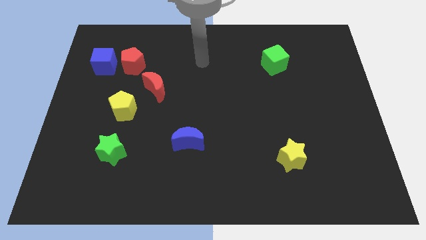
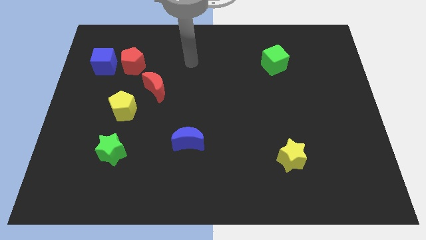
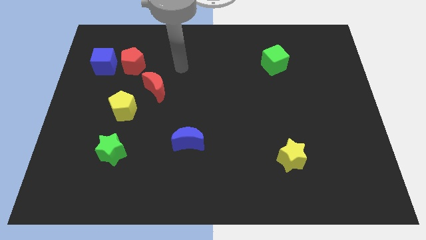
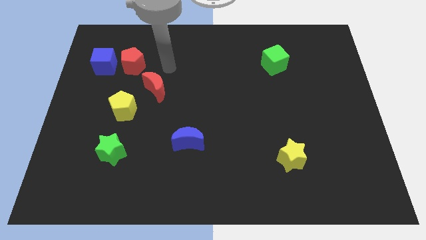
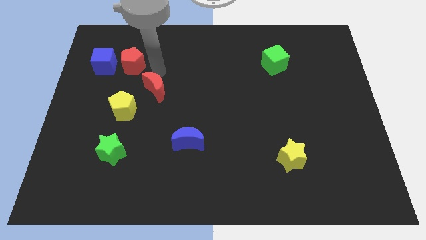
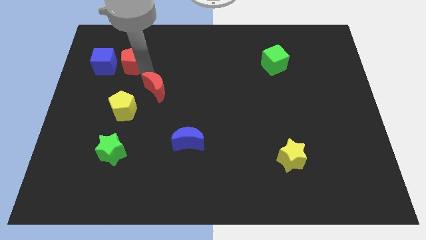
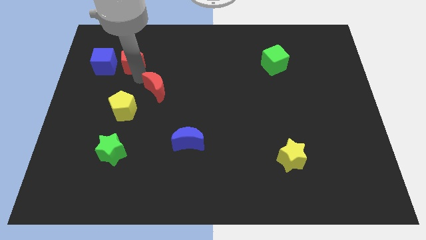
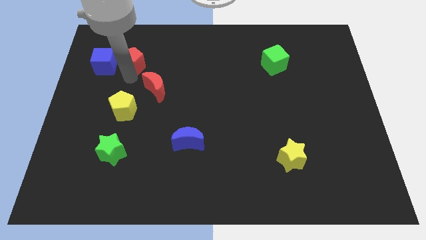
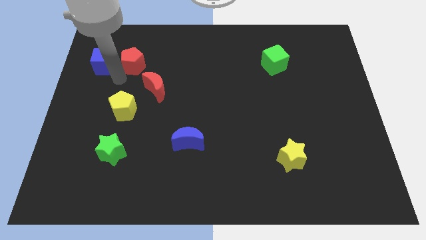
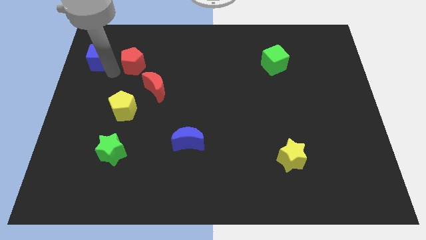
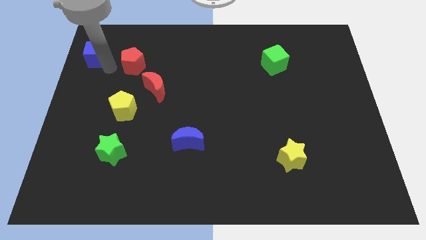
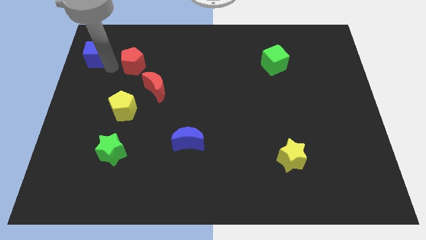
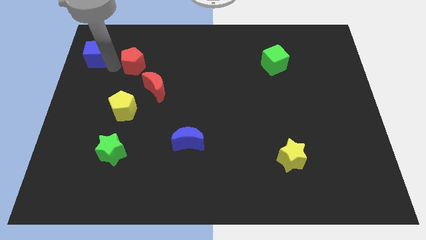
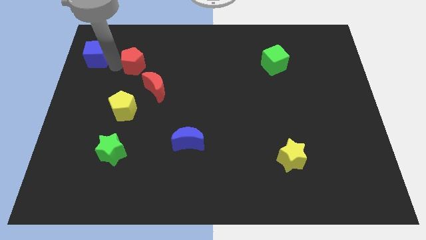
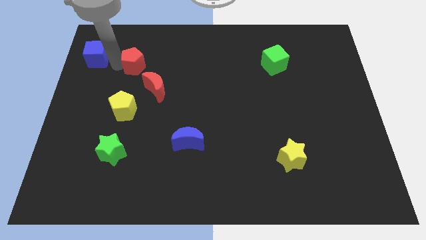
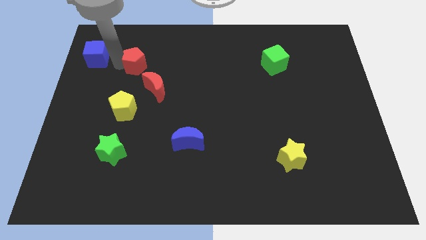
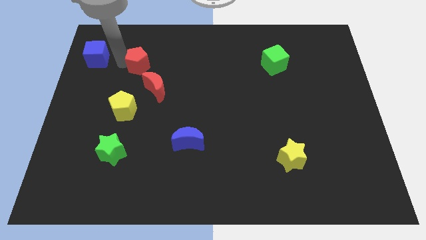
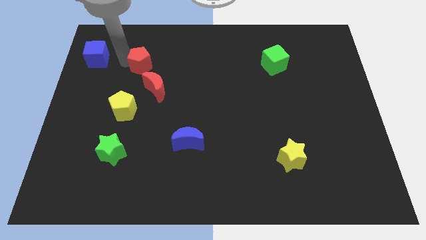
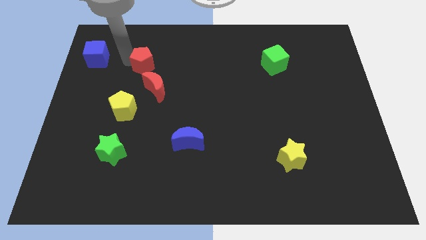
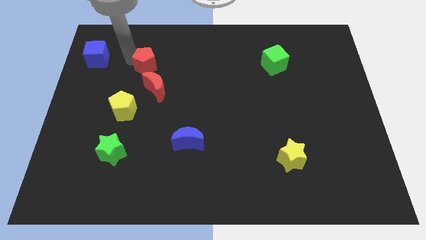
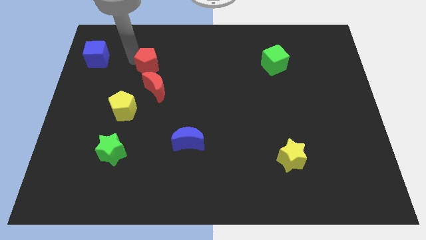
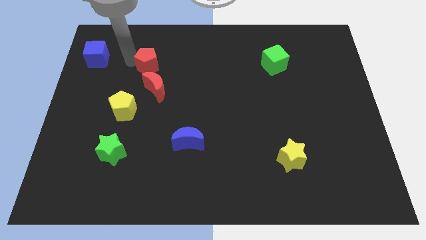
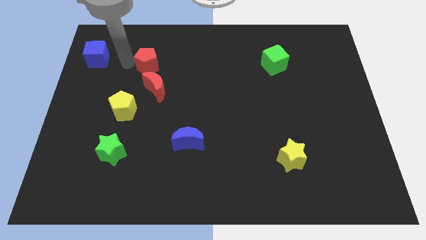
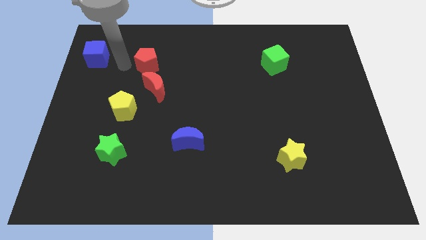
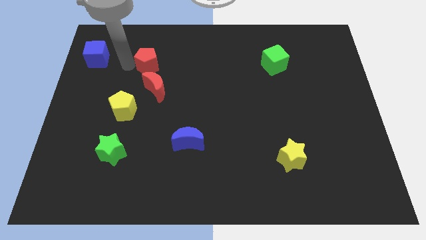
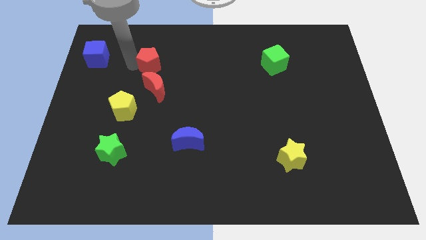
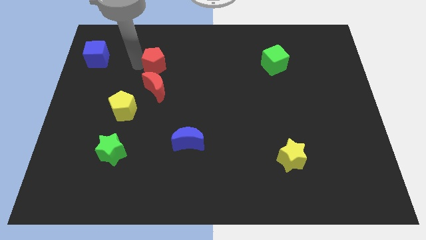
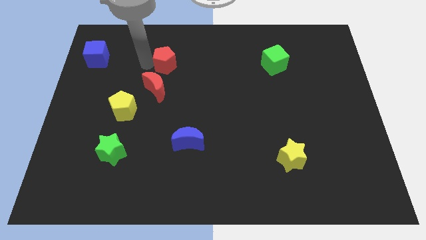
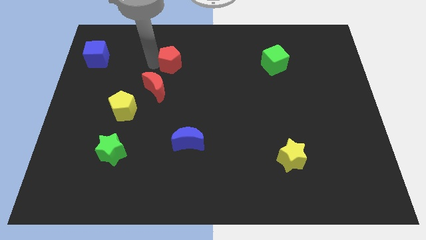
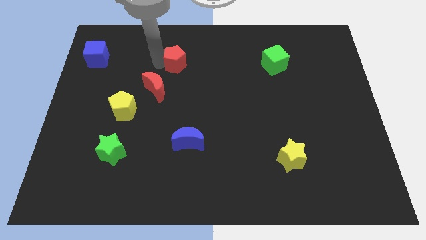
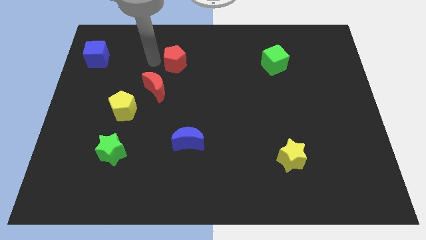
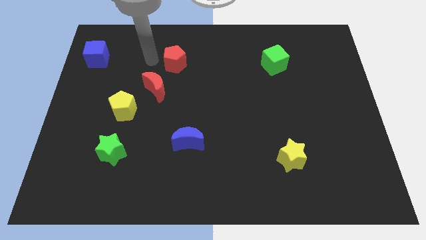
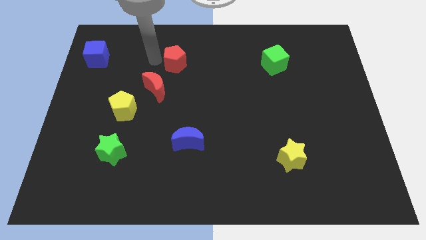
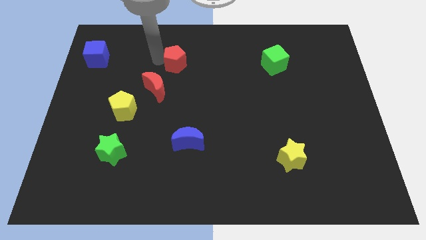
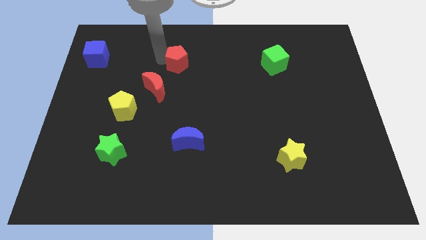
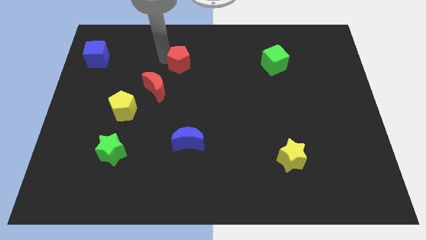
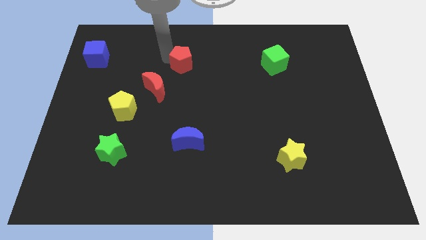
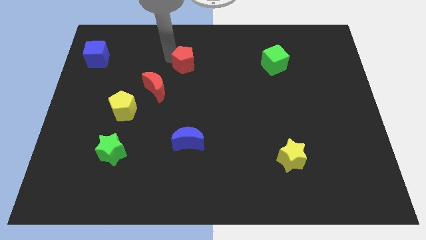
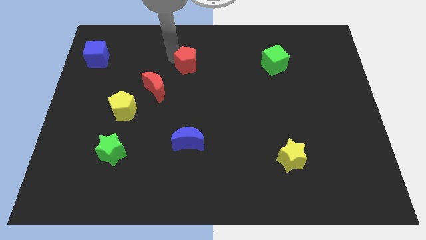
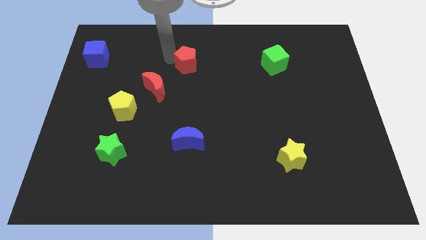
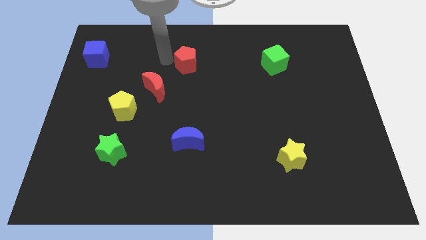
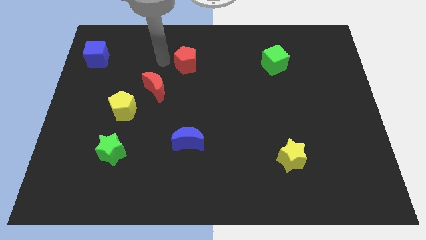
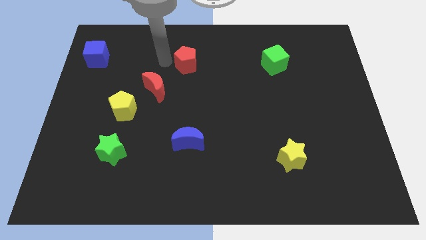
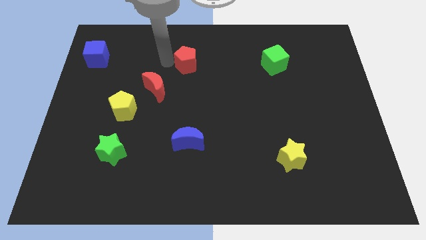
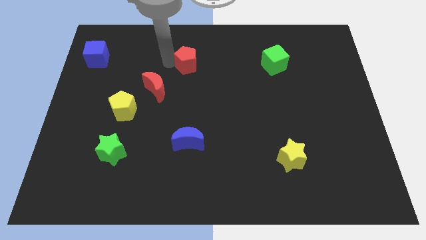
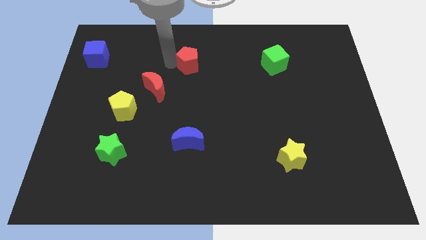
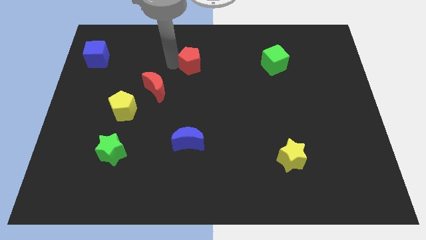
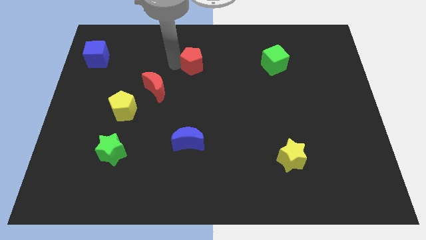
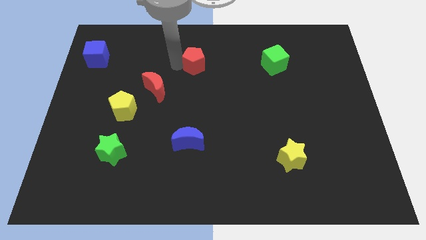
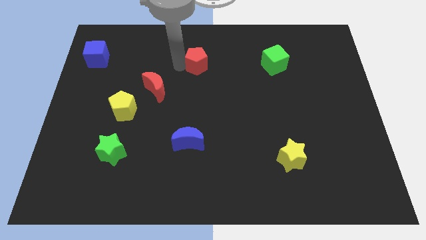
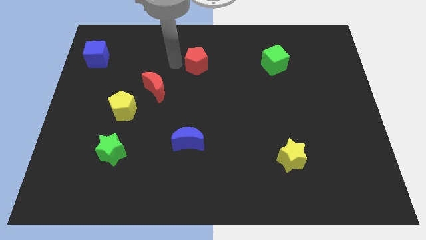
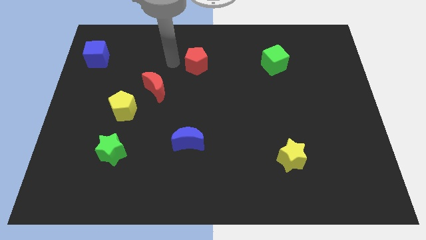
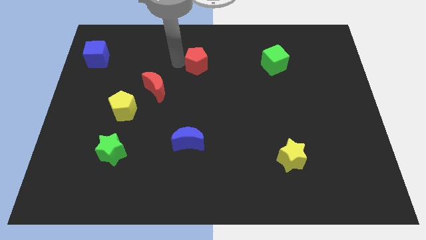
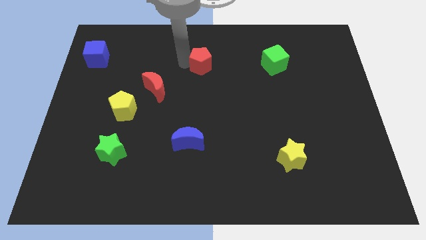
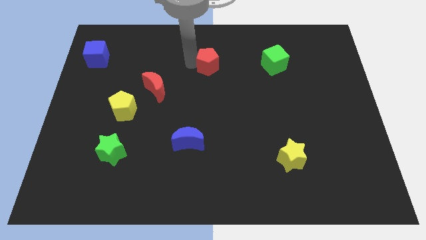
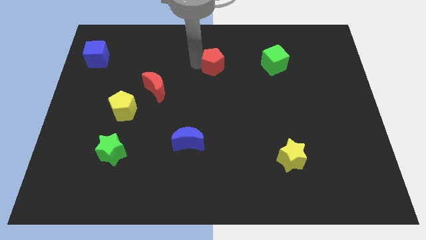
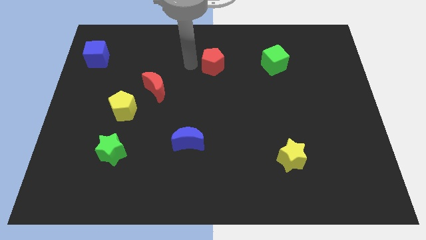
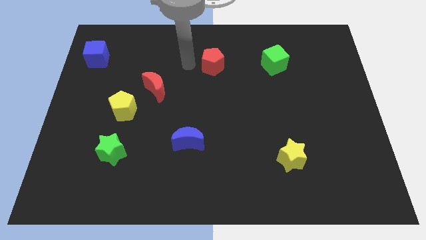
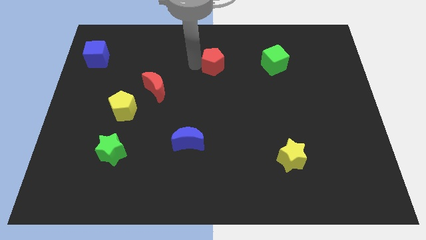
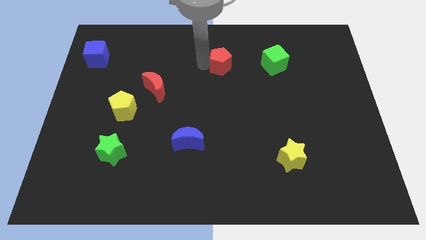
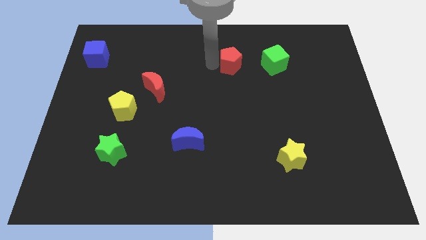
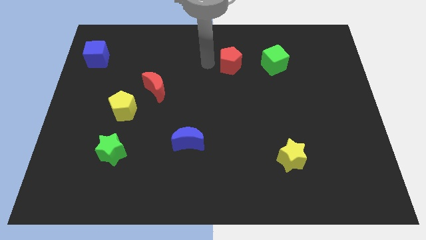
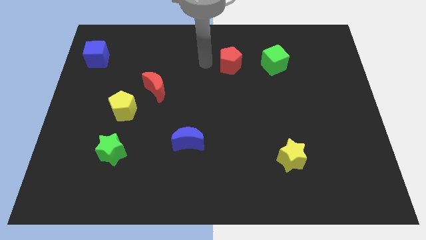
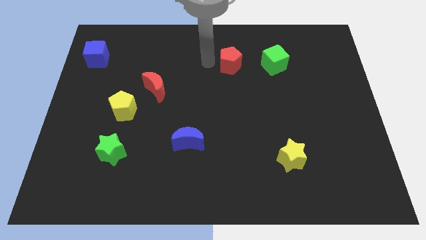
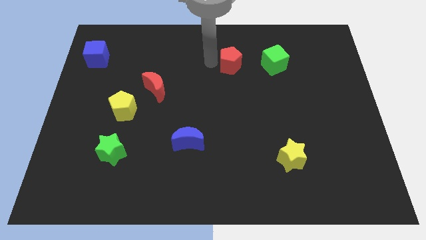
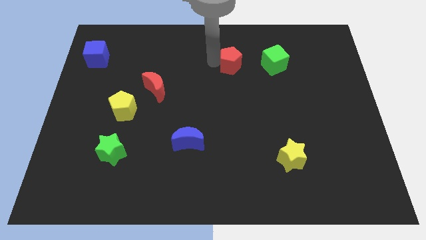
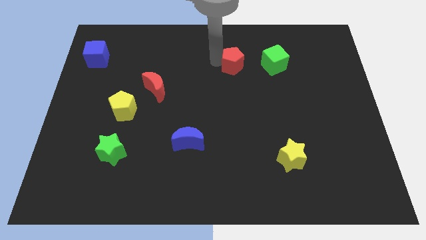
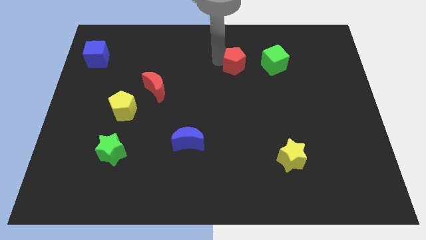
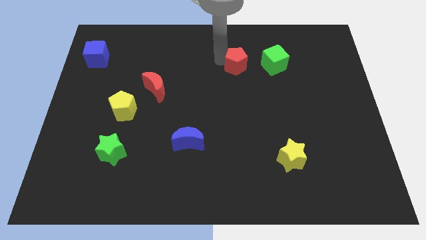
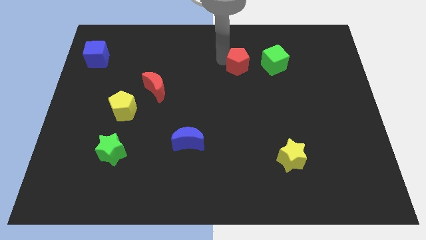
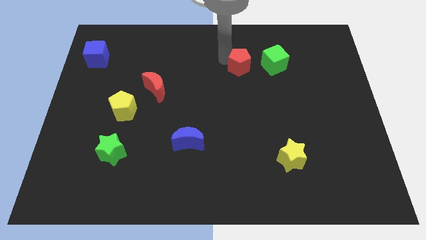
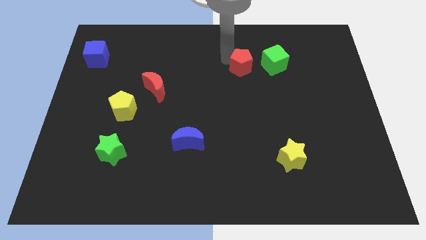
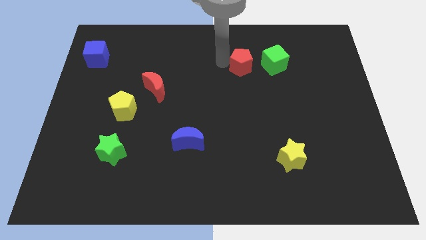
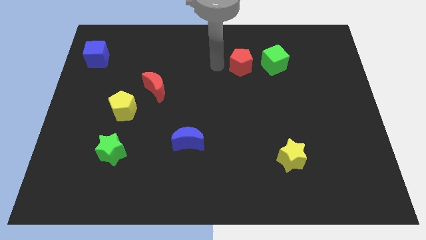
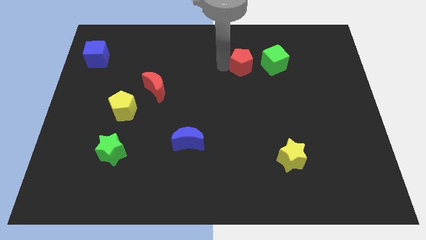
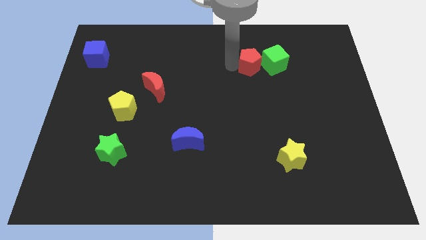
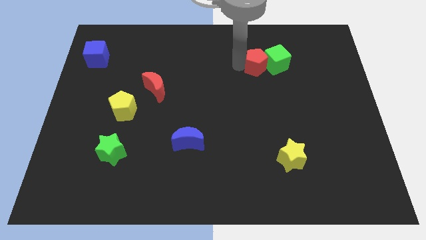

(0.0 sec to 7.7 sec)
slide the red pentagon next to the green cube
